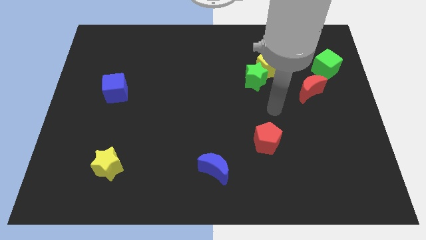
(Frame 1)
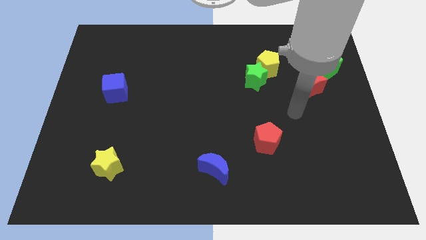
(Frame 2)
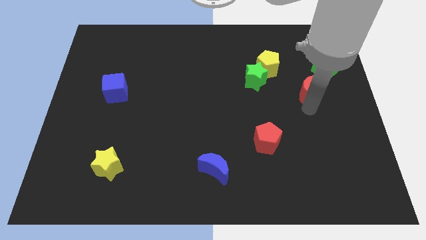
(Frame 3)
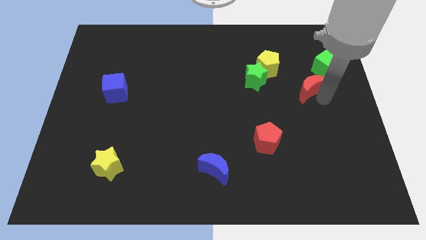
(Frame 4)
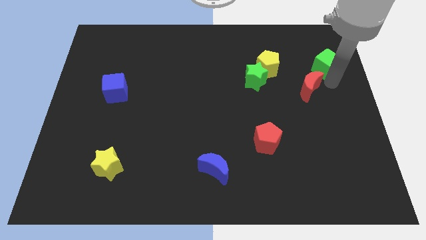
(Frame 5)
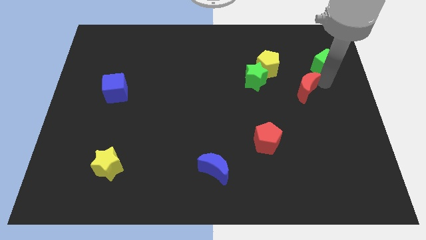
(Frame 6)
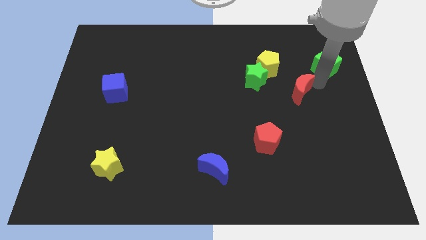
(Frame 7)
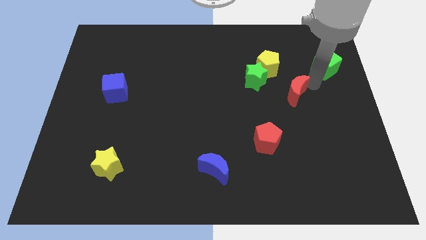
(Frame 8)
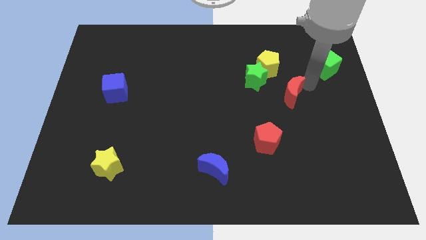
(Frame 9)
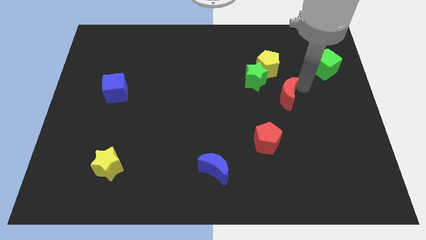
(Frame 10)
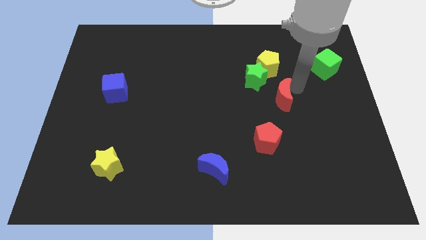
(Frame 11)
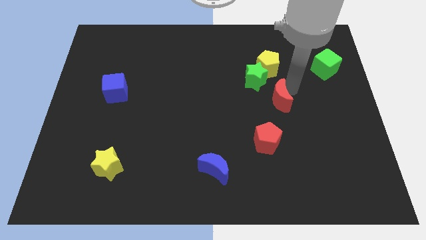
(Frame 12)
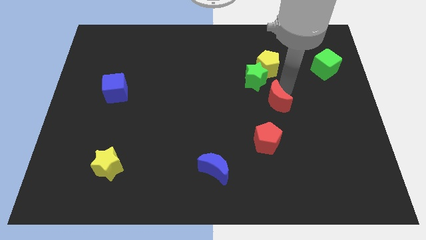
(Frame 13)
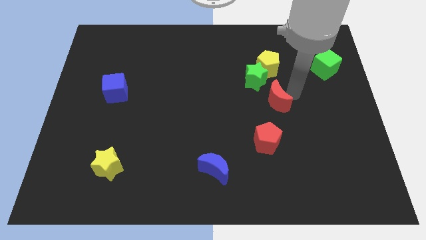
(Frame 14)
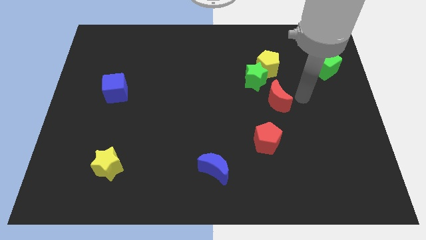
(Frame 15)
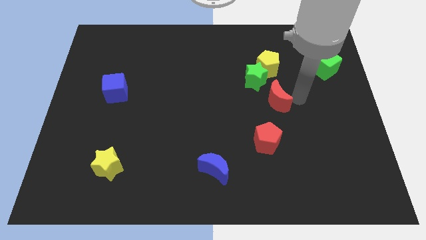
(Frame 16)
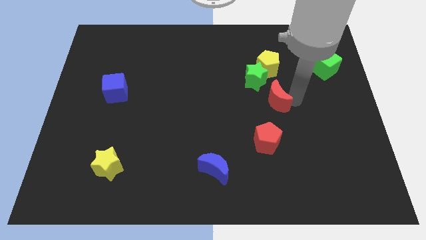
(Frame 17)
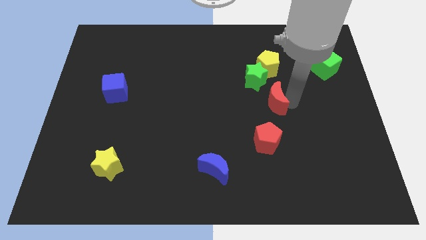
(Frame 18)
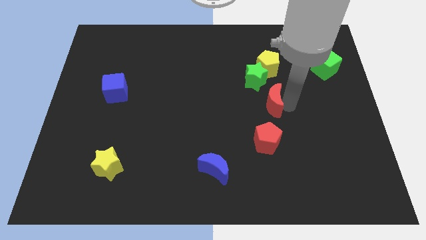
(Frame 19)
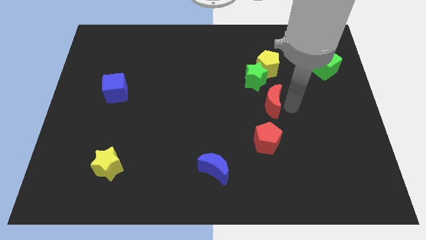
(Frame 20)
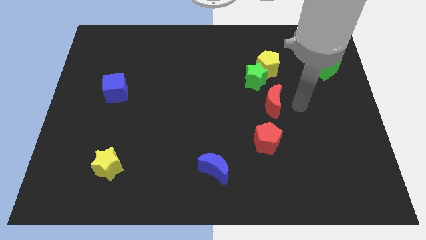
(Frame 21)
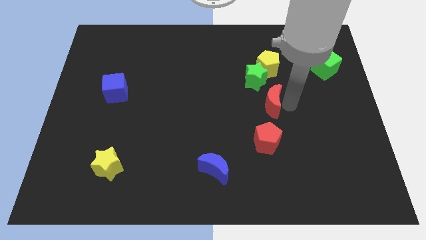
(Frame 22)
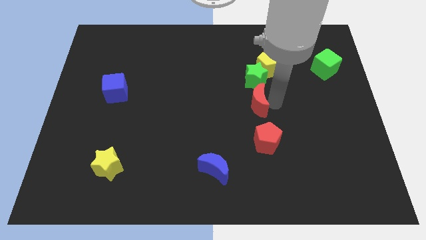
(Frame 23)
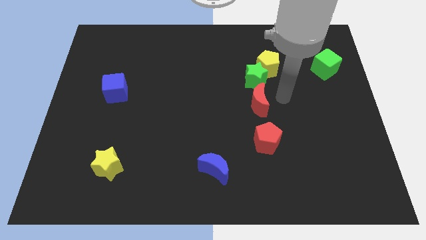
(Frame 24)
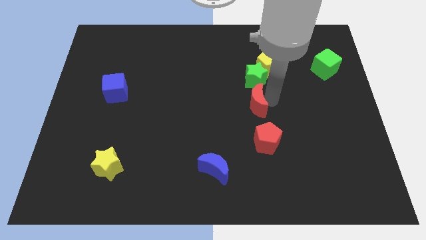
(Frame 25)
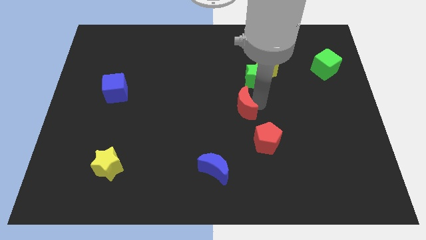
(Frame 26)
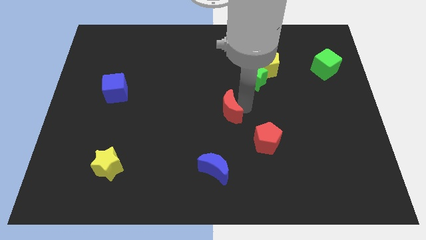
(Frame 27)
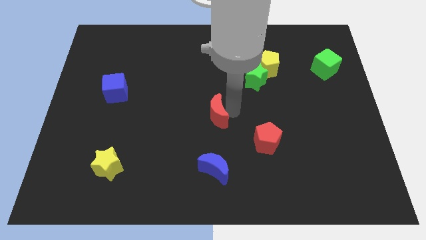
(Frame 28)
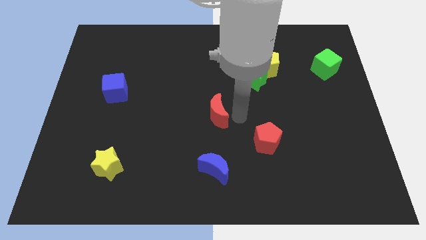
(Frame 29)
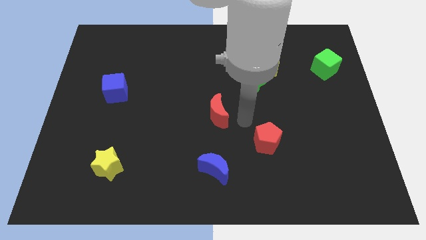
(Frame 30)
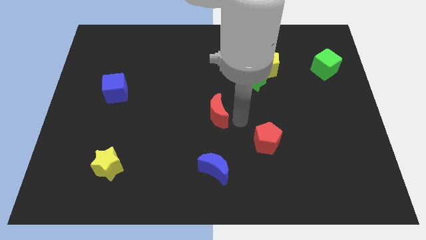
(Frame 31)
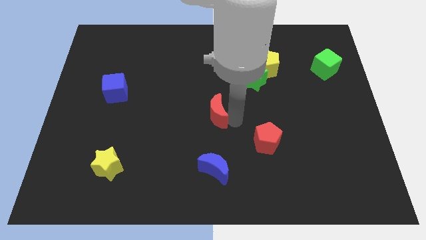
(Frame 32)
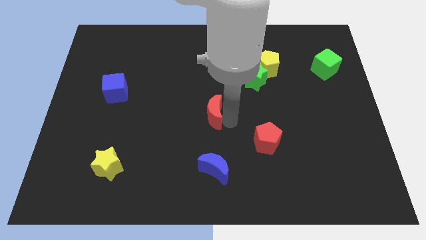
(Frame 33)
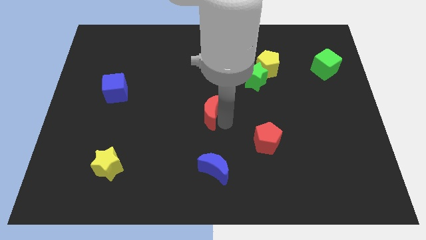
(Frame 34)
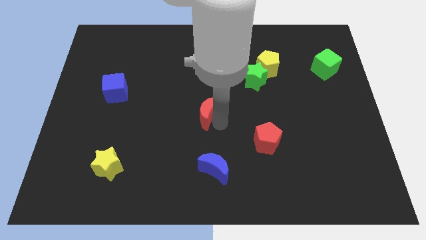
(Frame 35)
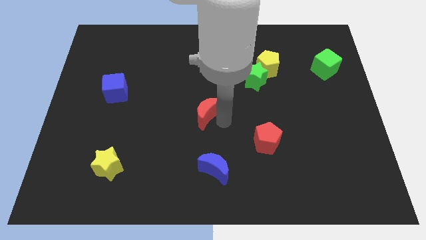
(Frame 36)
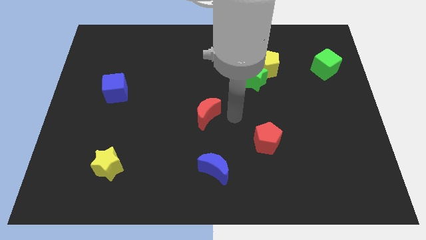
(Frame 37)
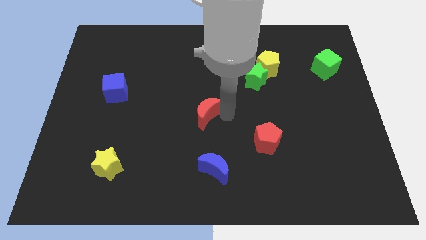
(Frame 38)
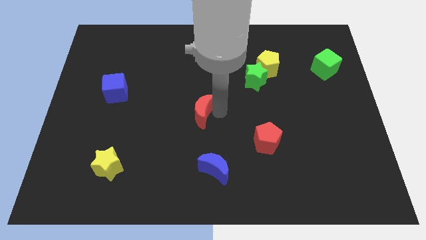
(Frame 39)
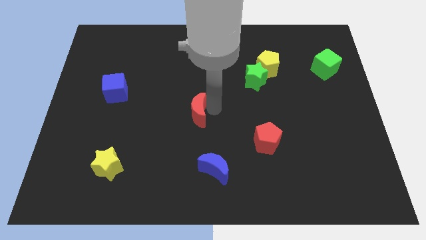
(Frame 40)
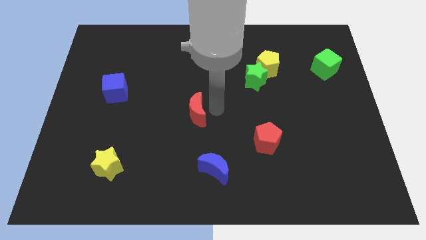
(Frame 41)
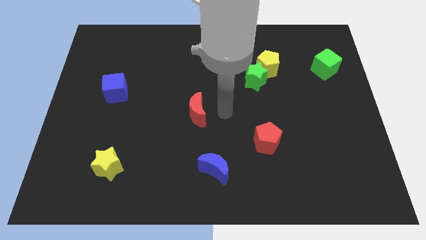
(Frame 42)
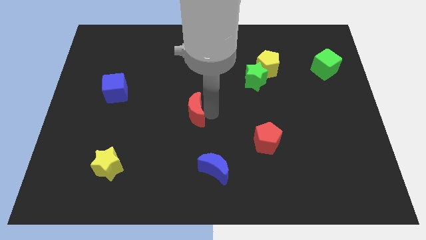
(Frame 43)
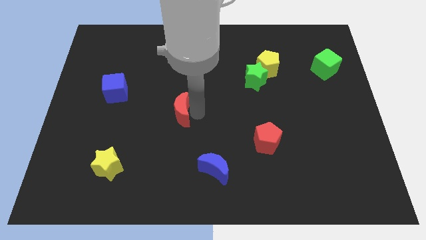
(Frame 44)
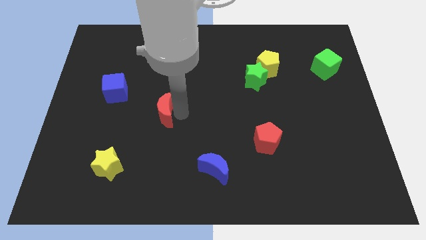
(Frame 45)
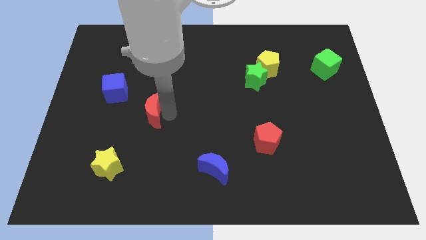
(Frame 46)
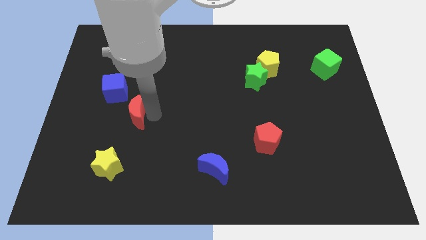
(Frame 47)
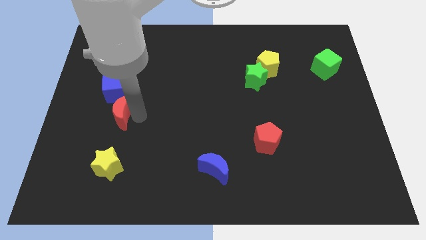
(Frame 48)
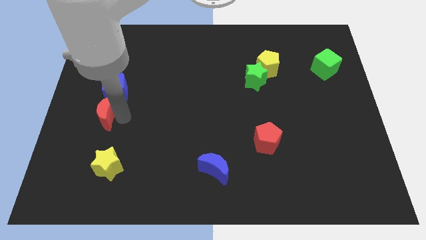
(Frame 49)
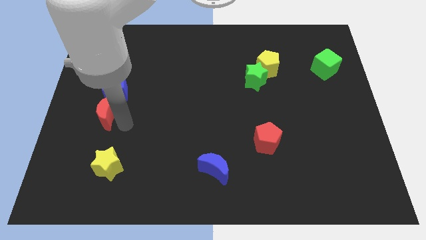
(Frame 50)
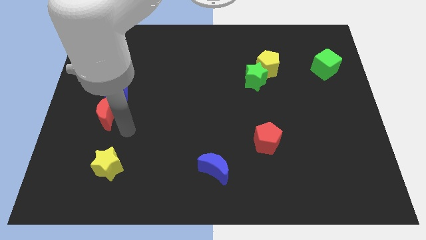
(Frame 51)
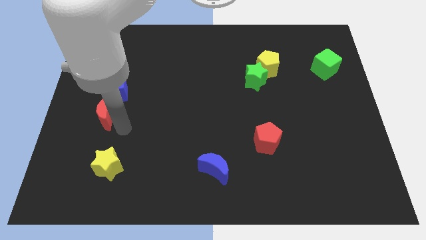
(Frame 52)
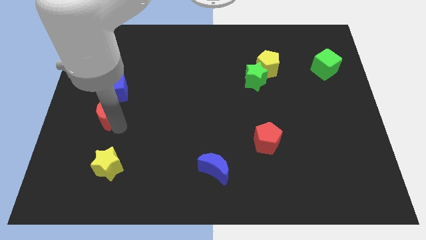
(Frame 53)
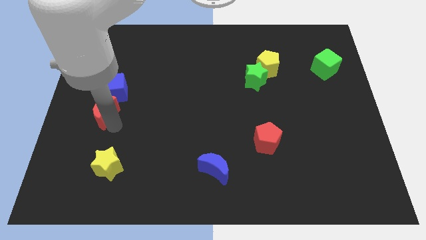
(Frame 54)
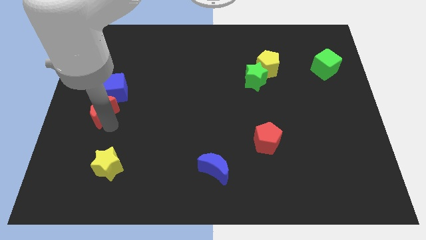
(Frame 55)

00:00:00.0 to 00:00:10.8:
put the red moon to the left side of the board

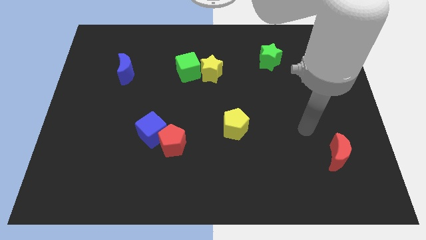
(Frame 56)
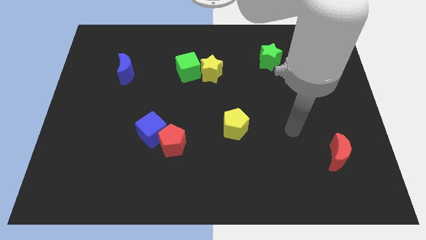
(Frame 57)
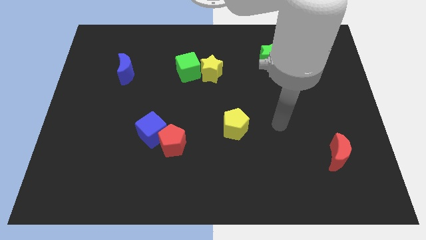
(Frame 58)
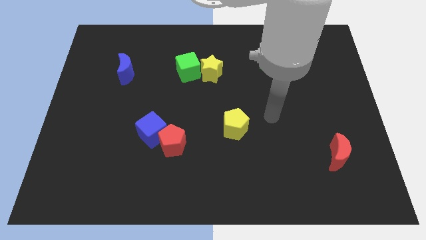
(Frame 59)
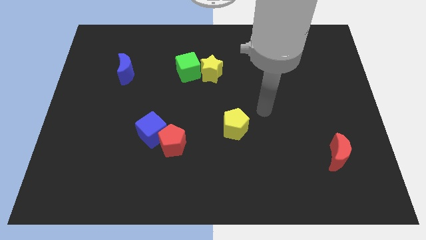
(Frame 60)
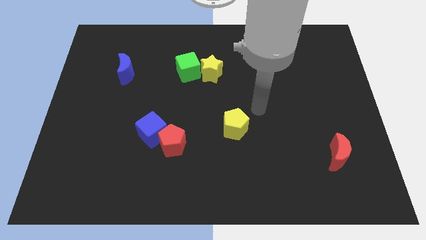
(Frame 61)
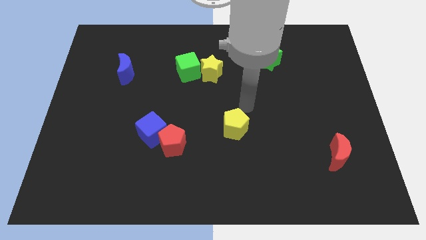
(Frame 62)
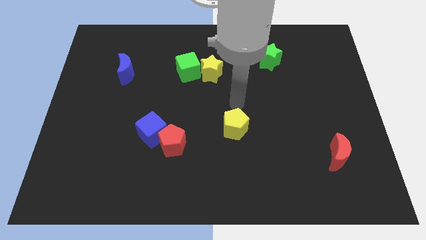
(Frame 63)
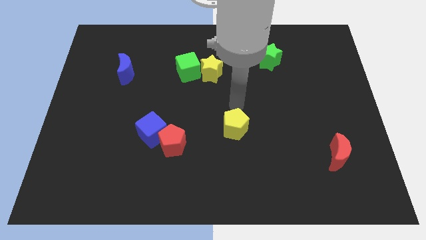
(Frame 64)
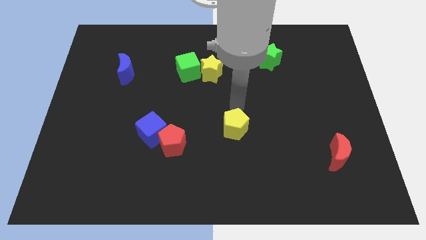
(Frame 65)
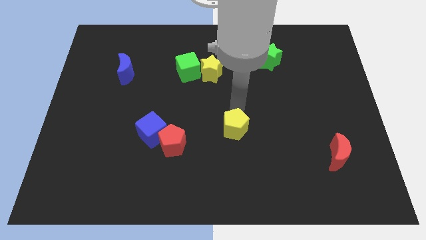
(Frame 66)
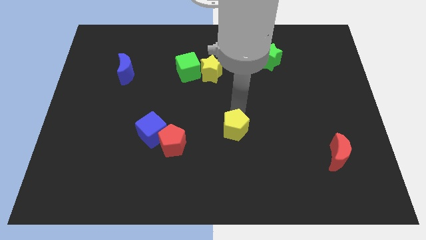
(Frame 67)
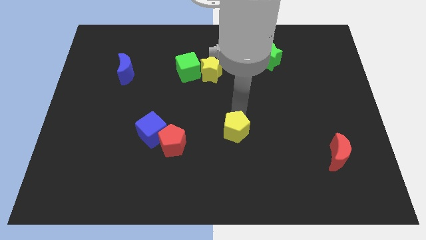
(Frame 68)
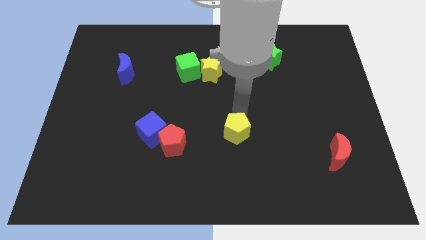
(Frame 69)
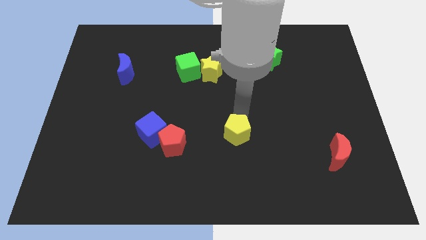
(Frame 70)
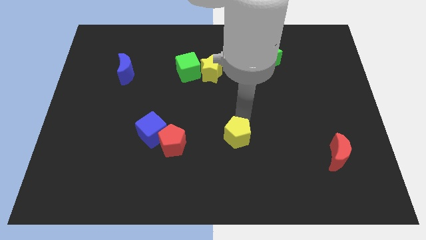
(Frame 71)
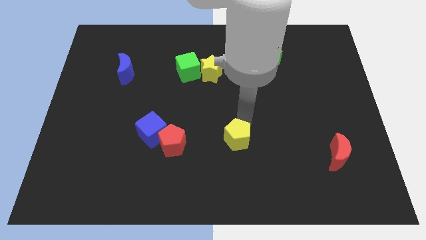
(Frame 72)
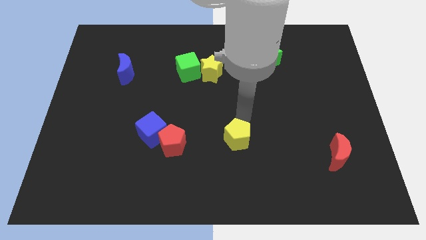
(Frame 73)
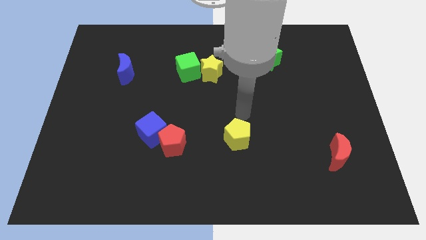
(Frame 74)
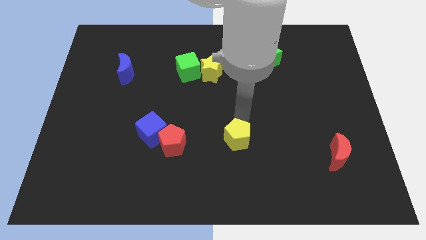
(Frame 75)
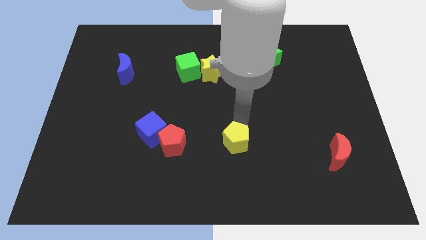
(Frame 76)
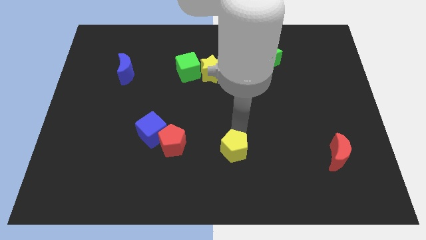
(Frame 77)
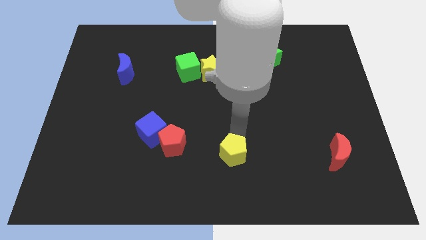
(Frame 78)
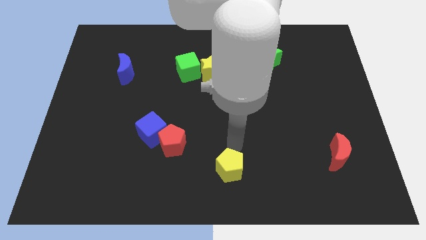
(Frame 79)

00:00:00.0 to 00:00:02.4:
push the yellow pentagon to the bottom side
